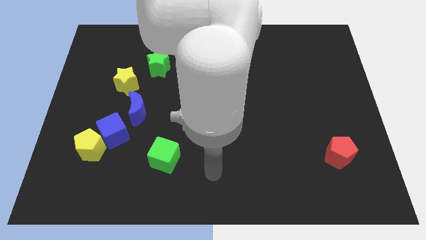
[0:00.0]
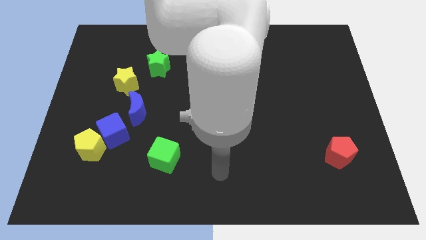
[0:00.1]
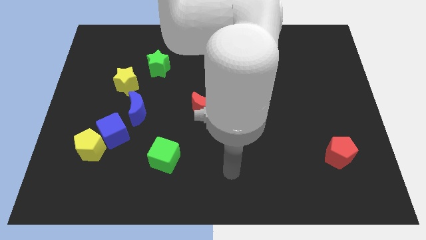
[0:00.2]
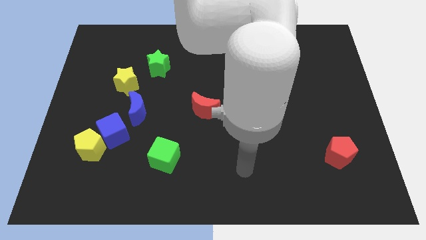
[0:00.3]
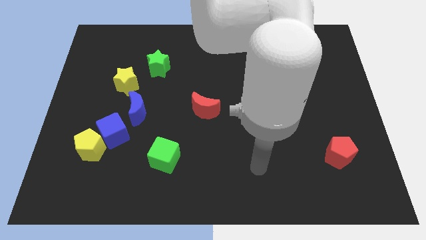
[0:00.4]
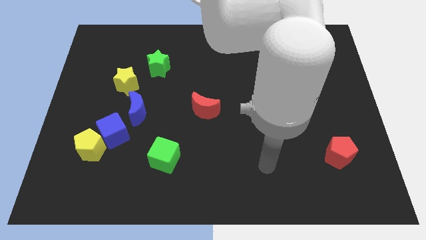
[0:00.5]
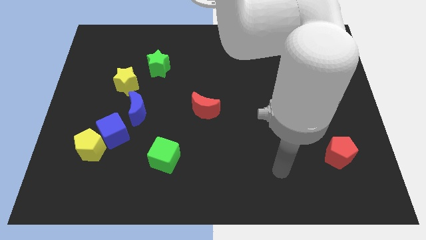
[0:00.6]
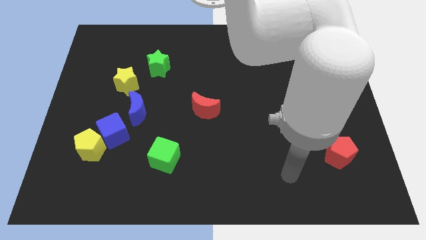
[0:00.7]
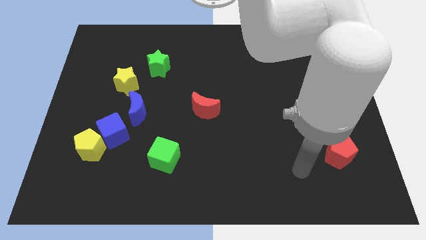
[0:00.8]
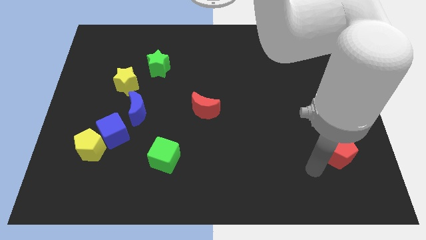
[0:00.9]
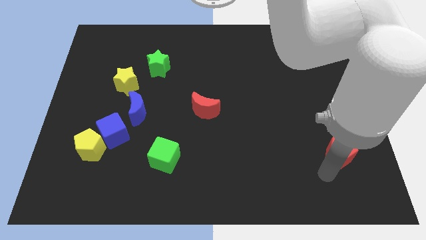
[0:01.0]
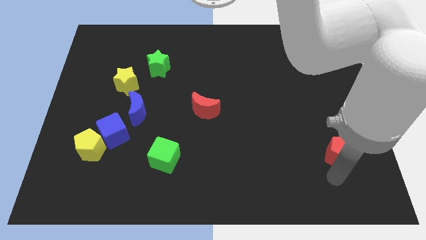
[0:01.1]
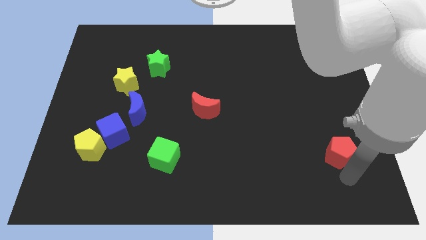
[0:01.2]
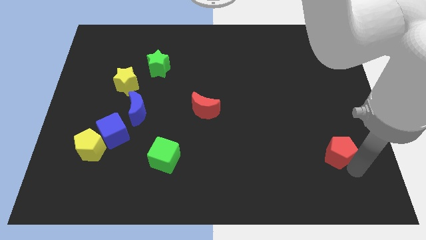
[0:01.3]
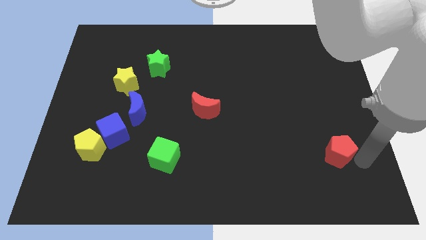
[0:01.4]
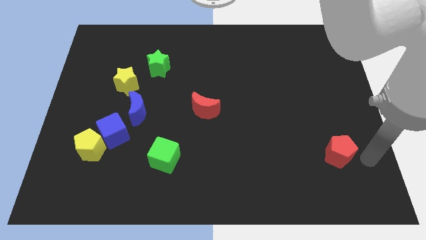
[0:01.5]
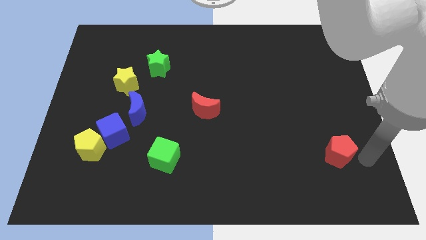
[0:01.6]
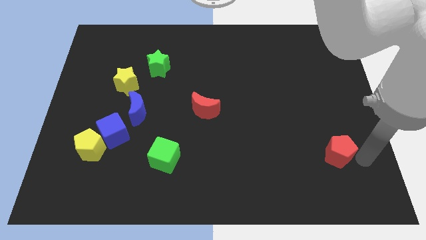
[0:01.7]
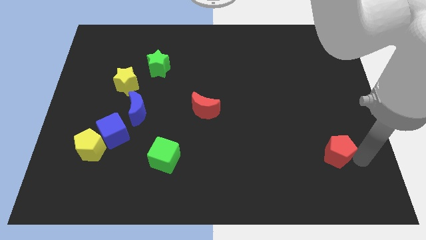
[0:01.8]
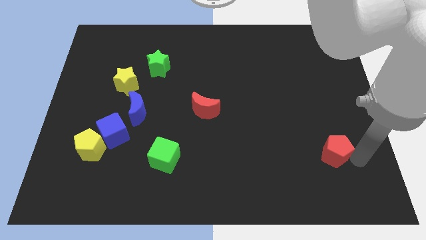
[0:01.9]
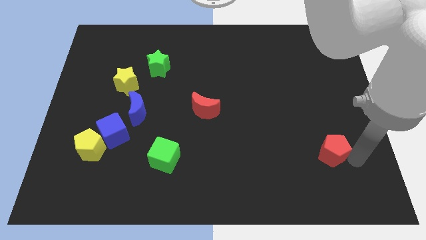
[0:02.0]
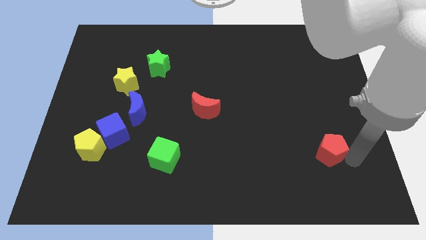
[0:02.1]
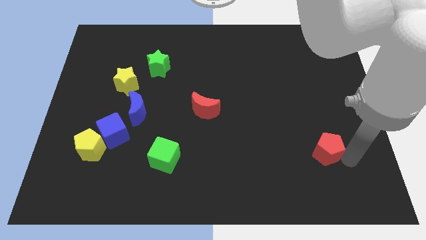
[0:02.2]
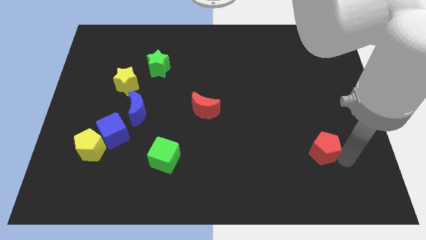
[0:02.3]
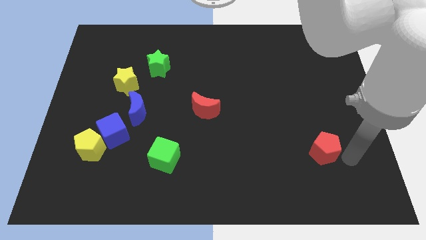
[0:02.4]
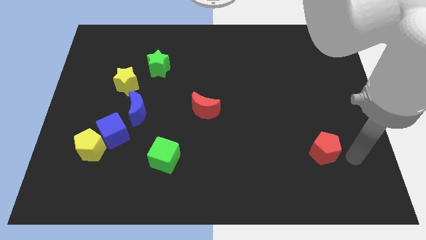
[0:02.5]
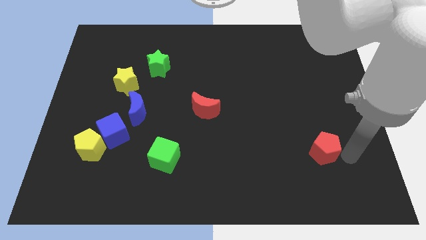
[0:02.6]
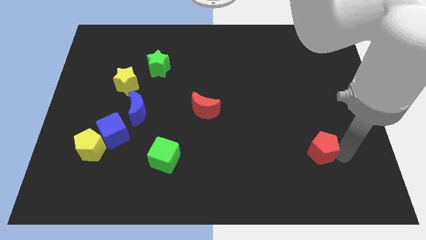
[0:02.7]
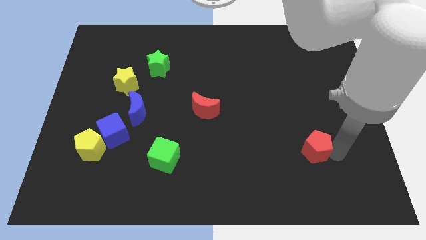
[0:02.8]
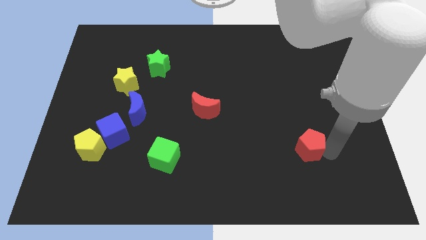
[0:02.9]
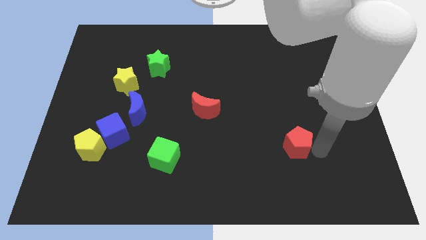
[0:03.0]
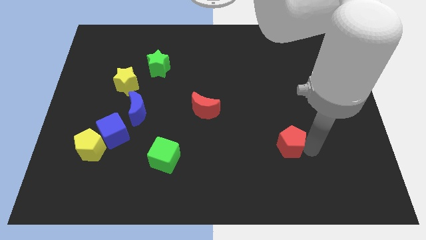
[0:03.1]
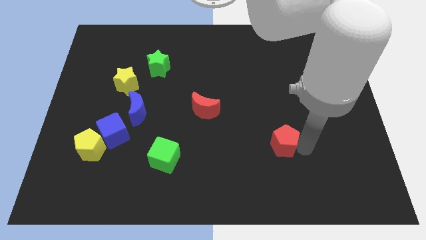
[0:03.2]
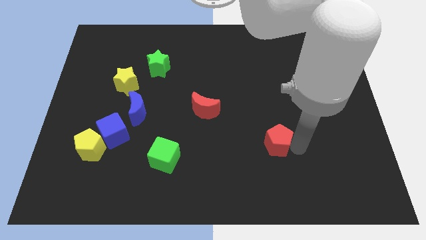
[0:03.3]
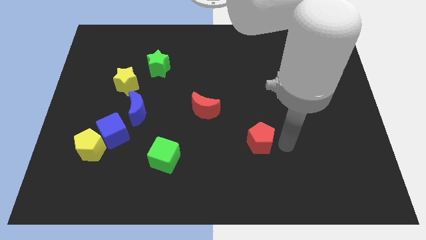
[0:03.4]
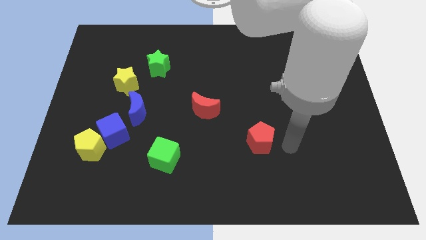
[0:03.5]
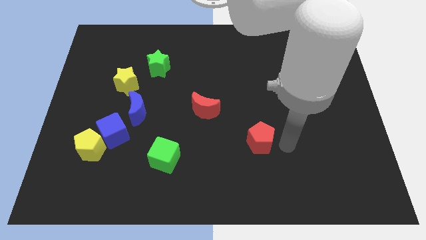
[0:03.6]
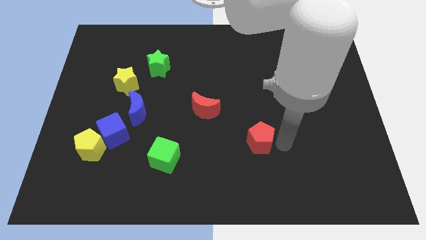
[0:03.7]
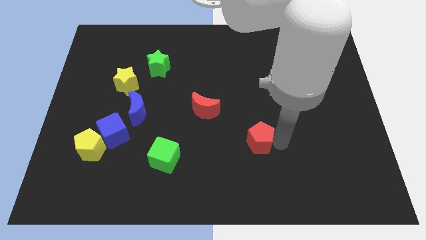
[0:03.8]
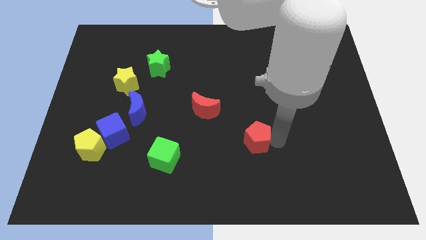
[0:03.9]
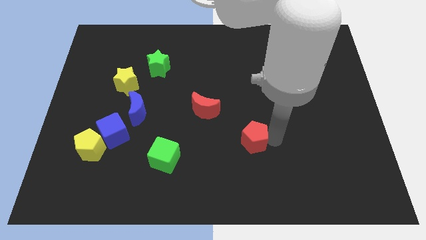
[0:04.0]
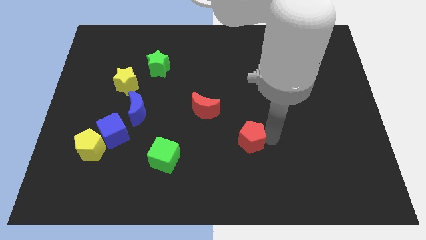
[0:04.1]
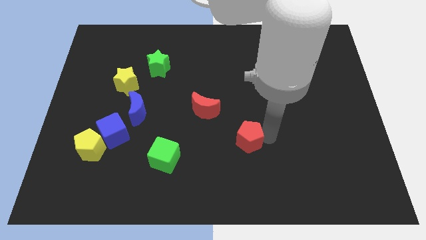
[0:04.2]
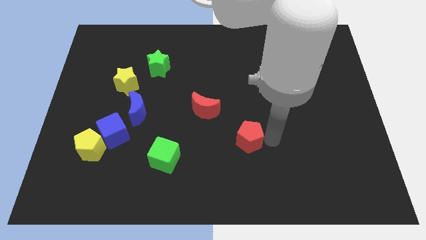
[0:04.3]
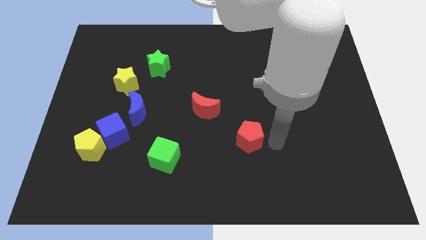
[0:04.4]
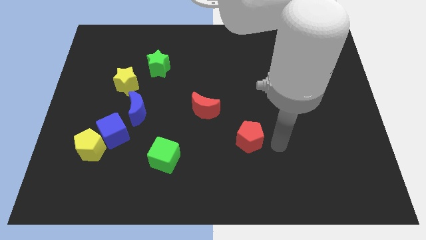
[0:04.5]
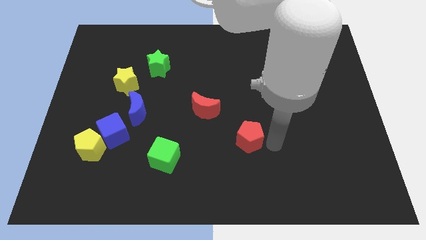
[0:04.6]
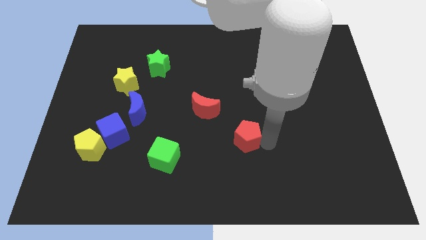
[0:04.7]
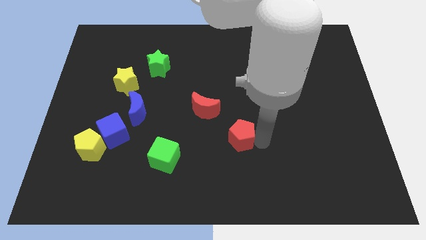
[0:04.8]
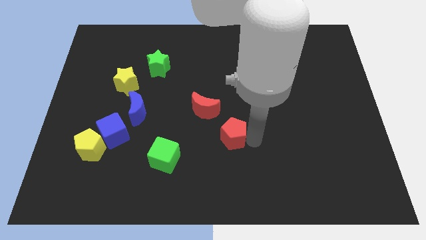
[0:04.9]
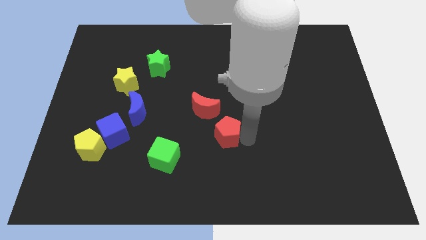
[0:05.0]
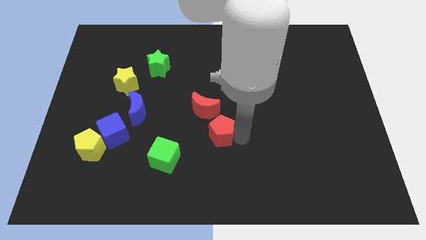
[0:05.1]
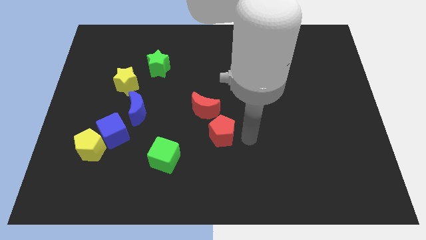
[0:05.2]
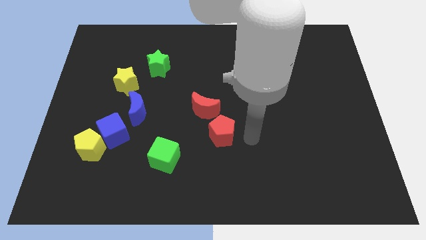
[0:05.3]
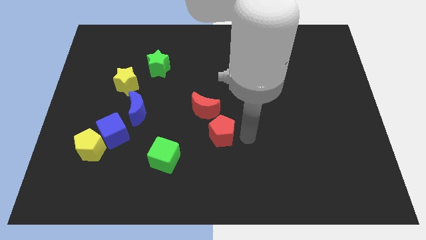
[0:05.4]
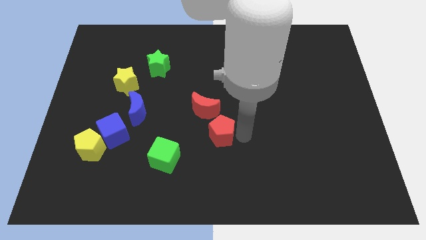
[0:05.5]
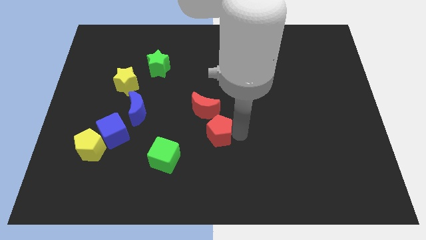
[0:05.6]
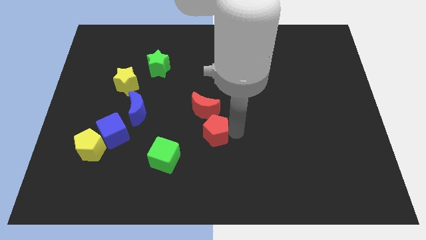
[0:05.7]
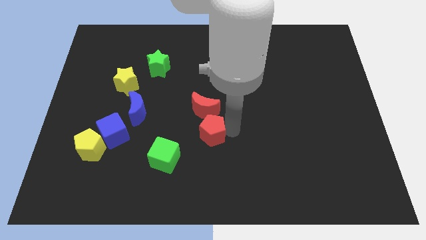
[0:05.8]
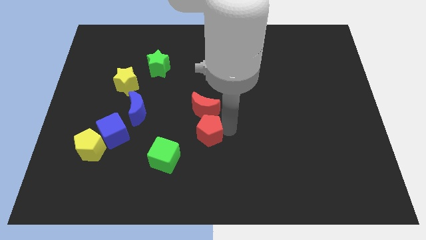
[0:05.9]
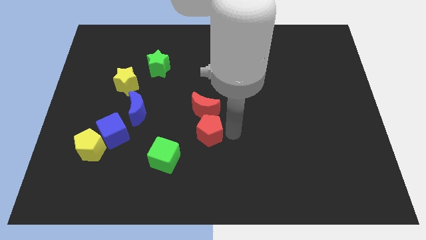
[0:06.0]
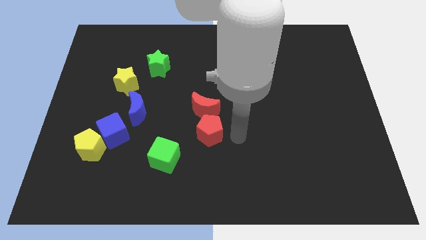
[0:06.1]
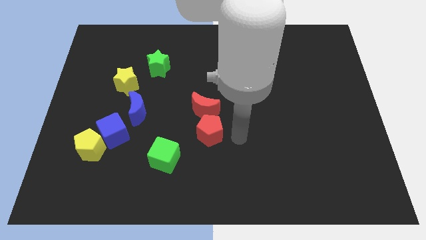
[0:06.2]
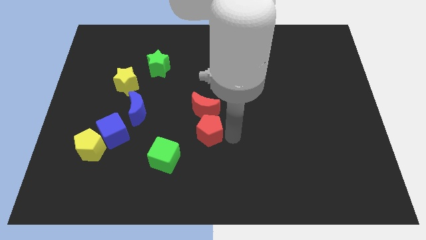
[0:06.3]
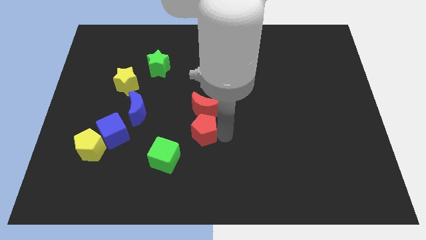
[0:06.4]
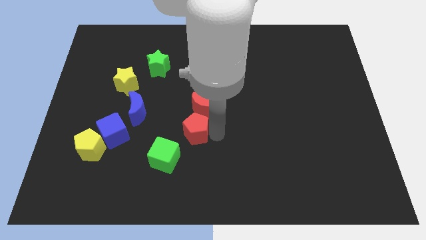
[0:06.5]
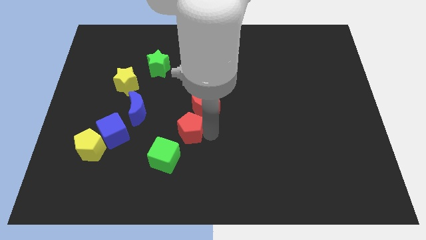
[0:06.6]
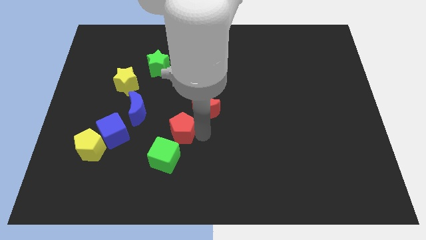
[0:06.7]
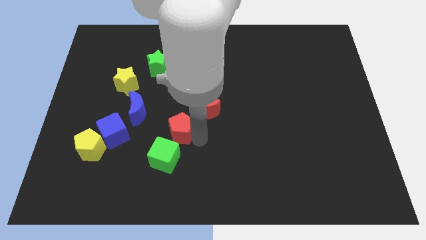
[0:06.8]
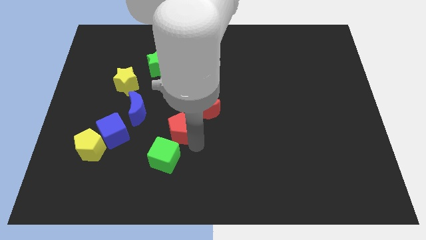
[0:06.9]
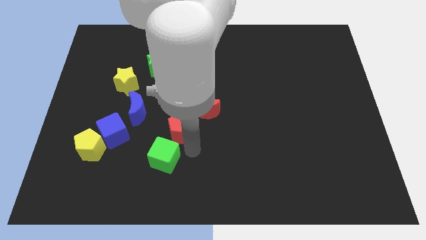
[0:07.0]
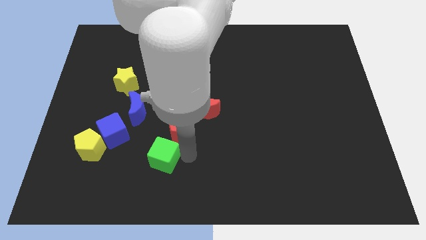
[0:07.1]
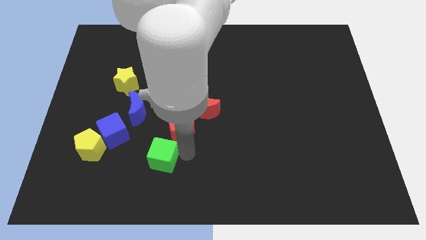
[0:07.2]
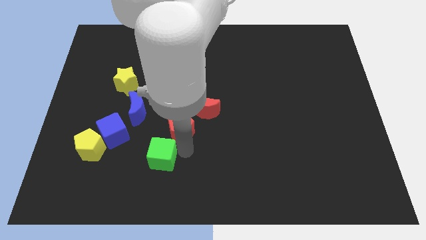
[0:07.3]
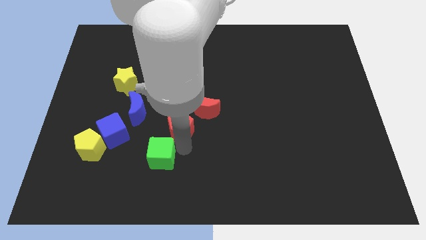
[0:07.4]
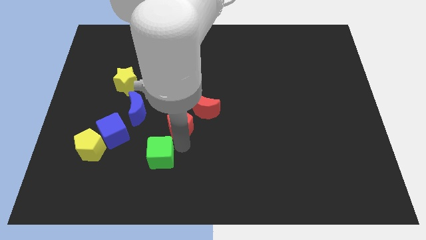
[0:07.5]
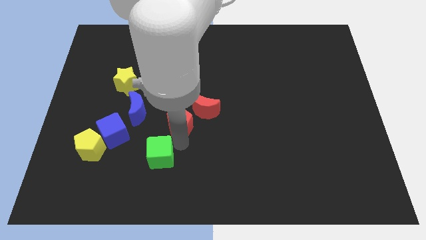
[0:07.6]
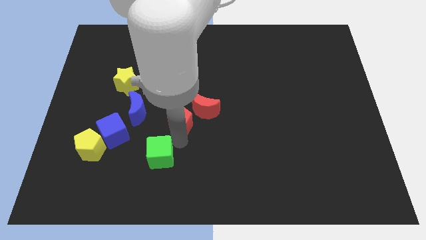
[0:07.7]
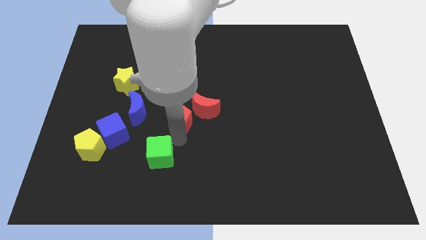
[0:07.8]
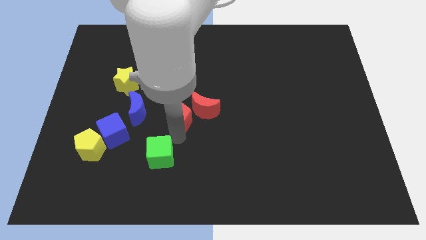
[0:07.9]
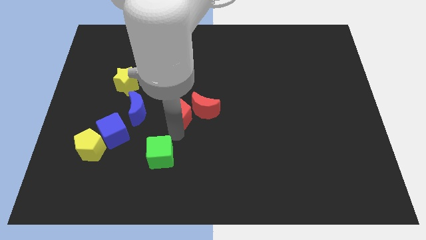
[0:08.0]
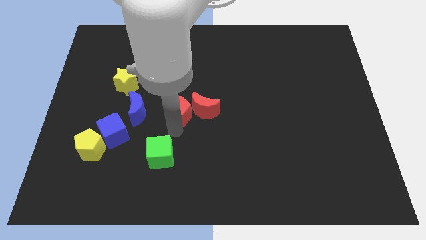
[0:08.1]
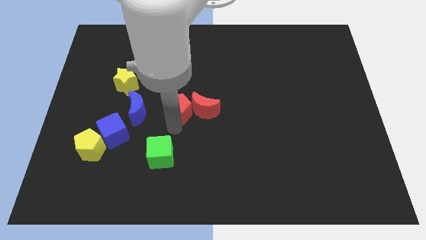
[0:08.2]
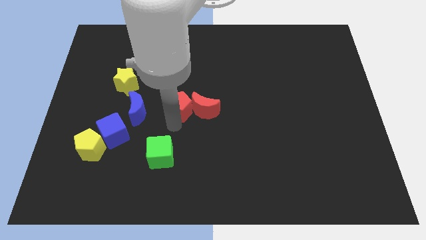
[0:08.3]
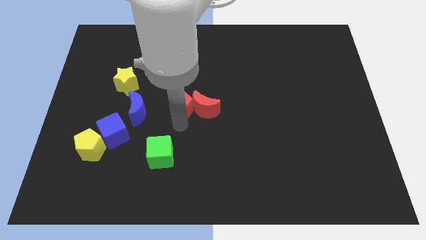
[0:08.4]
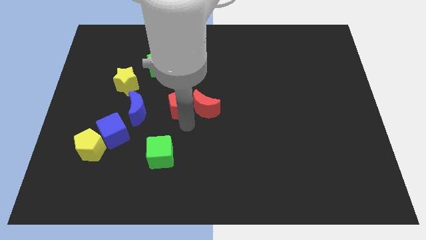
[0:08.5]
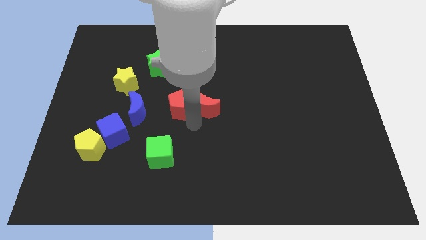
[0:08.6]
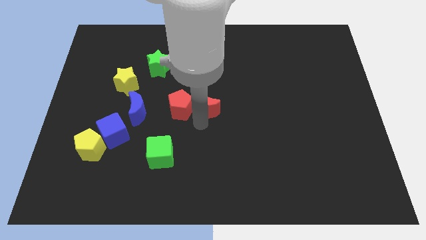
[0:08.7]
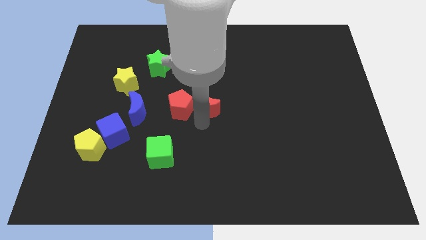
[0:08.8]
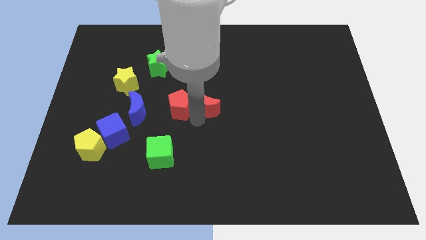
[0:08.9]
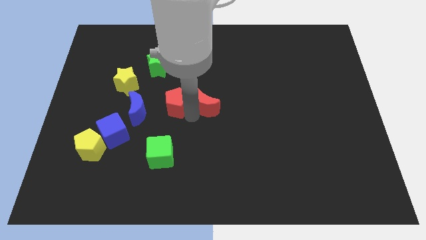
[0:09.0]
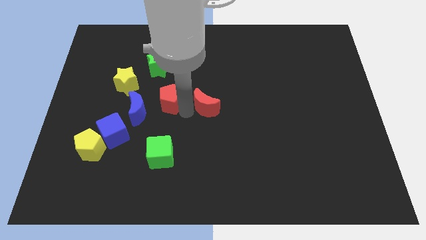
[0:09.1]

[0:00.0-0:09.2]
slide the red pentagon diagonally up and to the right of the blue moon
